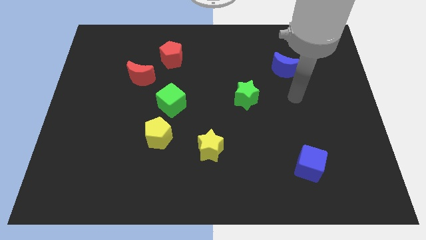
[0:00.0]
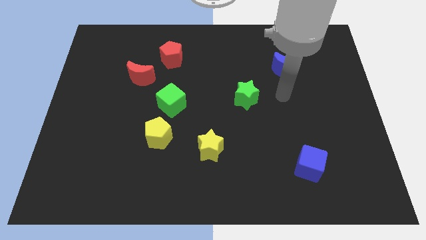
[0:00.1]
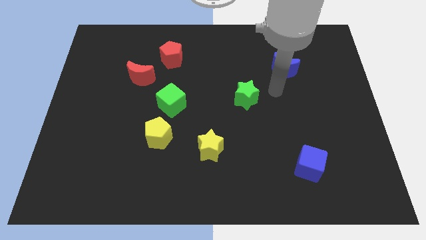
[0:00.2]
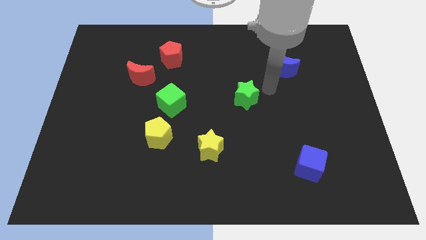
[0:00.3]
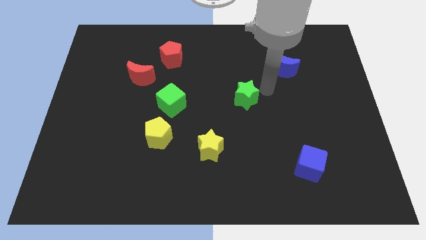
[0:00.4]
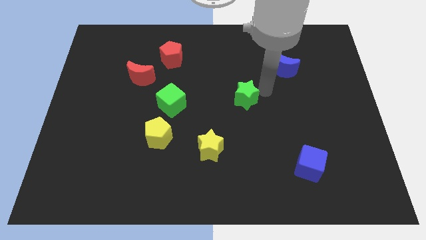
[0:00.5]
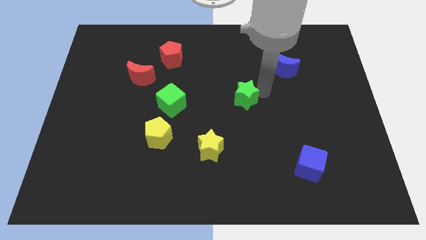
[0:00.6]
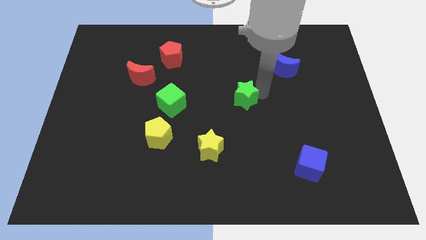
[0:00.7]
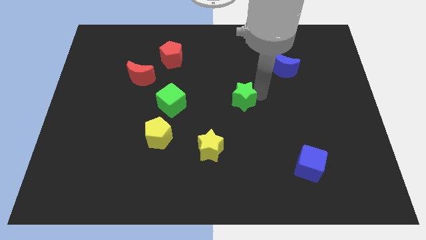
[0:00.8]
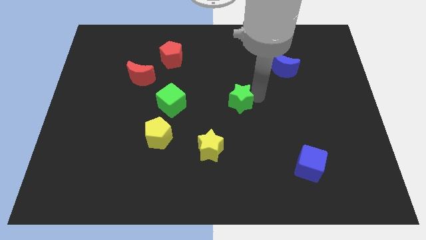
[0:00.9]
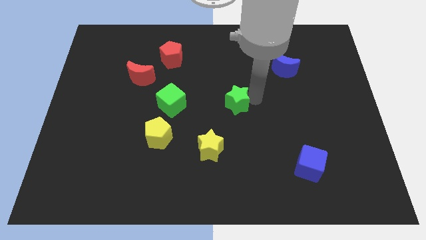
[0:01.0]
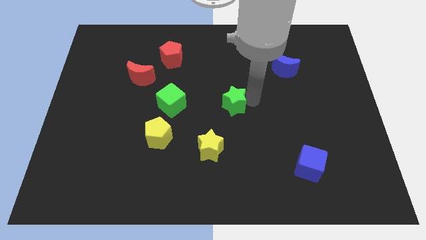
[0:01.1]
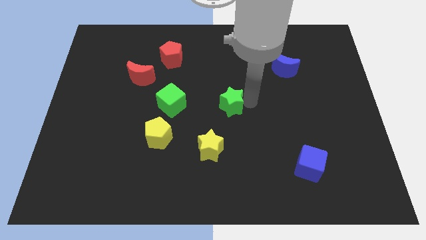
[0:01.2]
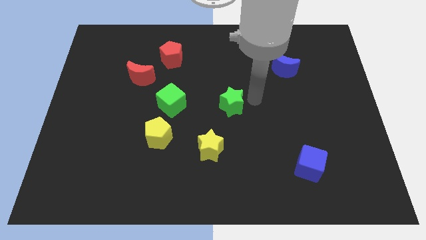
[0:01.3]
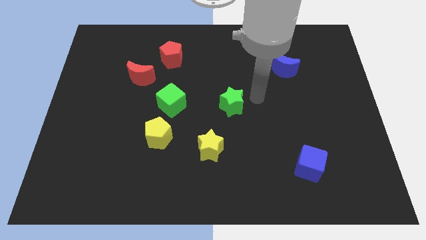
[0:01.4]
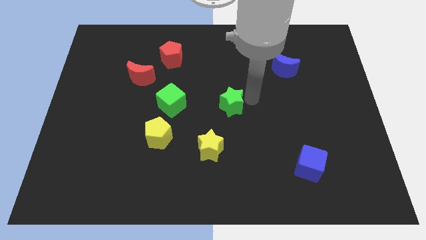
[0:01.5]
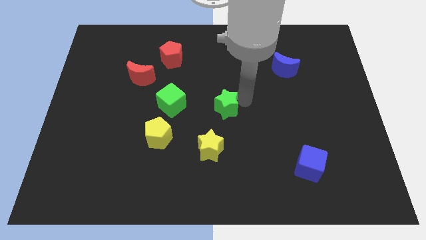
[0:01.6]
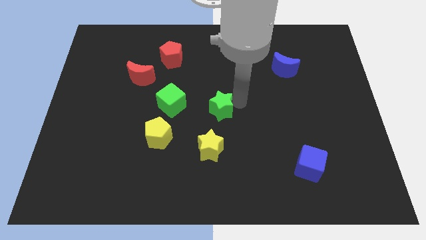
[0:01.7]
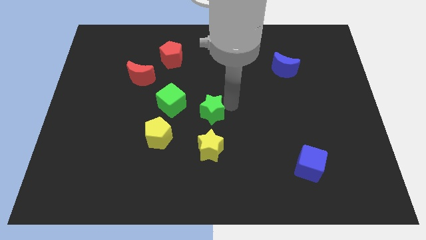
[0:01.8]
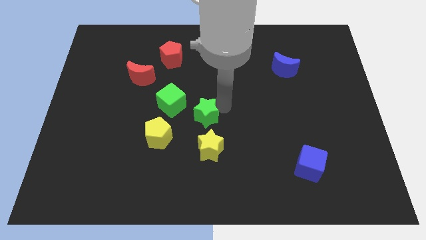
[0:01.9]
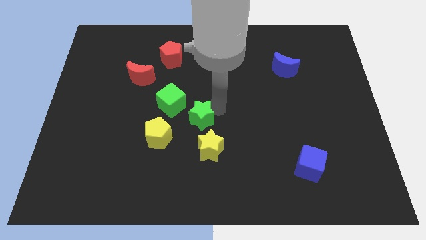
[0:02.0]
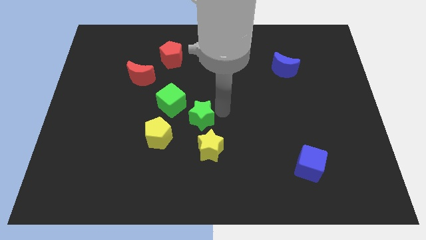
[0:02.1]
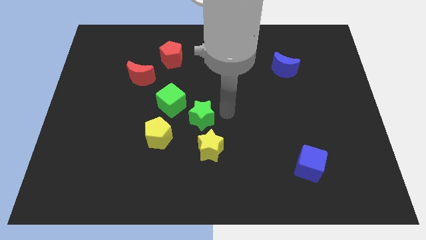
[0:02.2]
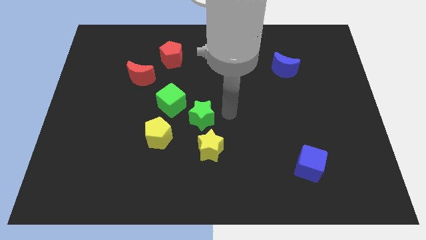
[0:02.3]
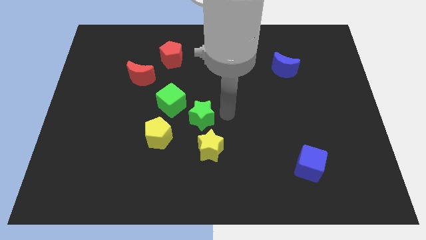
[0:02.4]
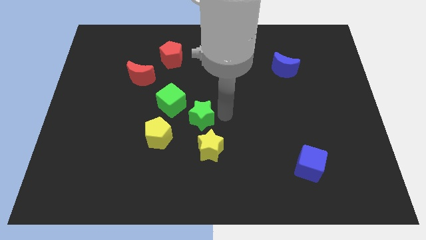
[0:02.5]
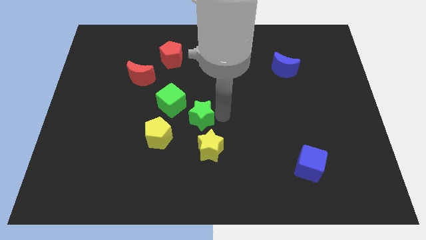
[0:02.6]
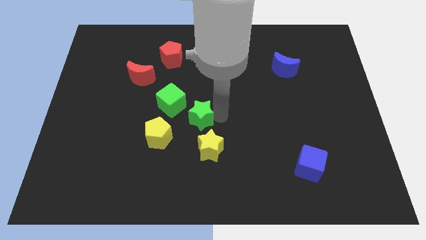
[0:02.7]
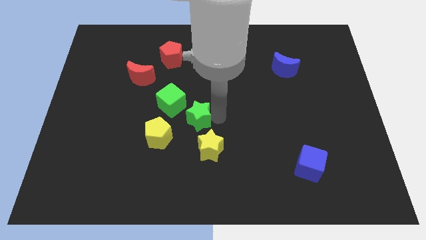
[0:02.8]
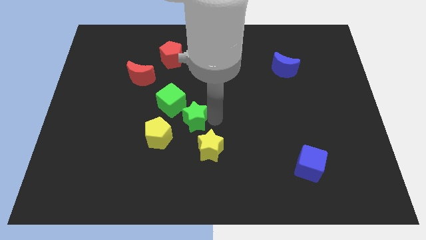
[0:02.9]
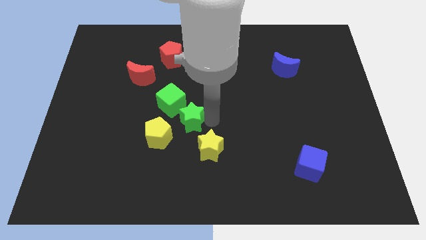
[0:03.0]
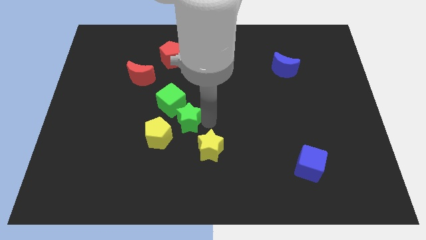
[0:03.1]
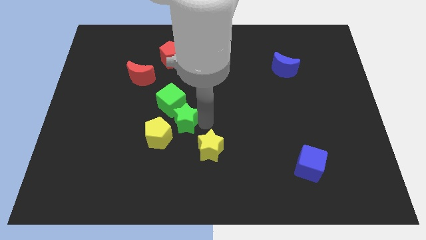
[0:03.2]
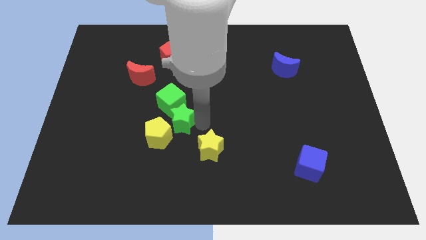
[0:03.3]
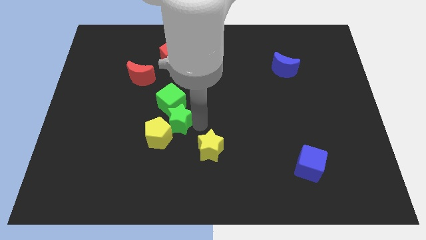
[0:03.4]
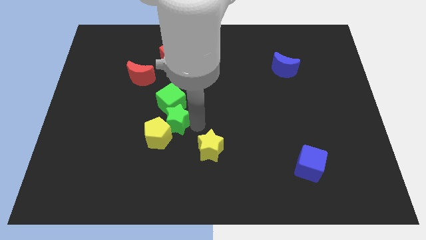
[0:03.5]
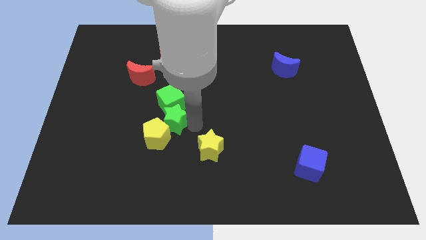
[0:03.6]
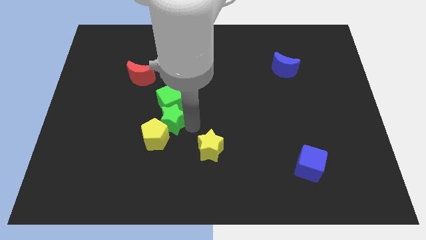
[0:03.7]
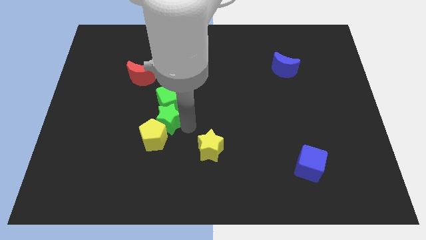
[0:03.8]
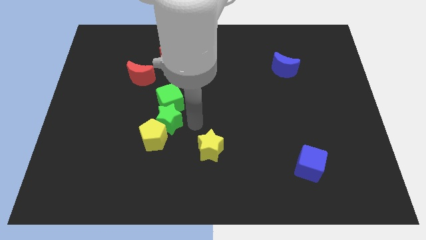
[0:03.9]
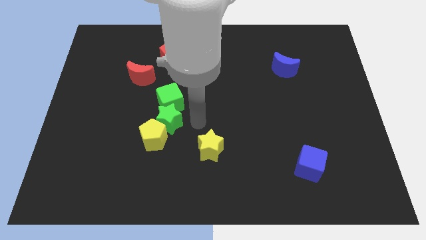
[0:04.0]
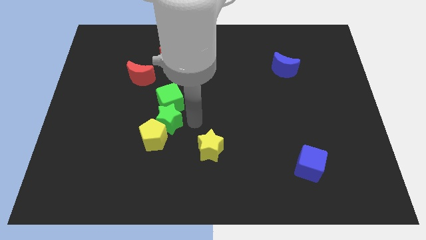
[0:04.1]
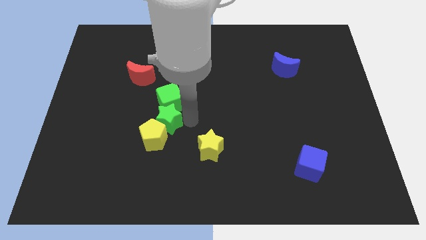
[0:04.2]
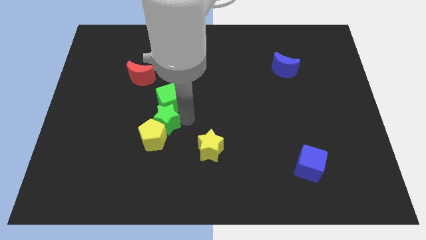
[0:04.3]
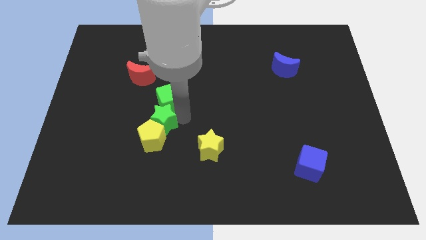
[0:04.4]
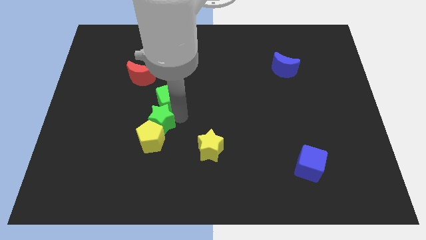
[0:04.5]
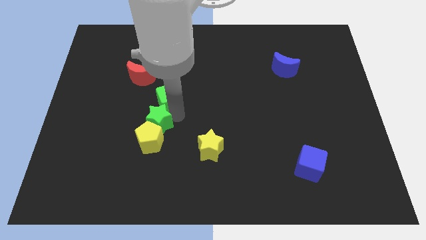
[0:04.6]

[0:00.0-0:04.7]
slide the green star diagonally up and to the left of the yellow pentagon

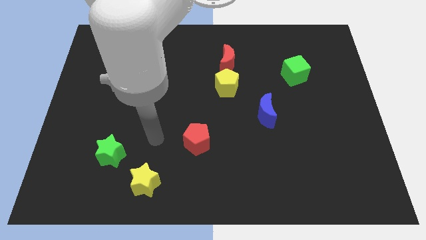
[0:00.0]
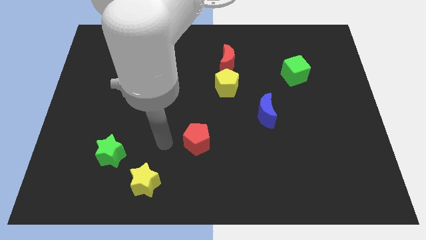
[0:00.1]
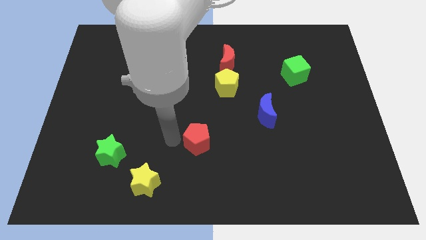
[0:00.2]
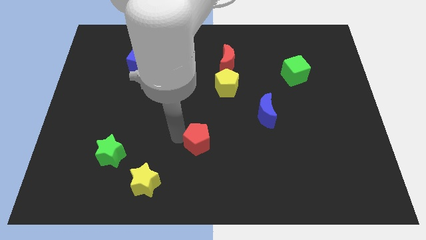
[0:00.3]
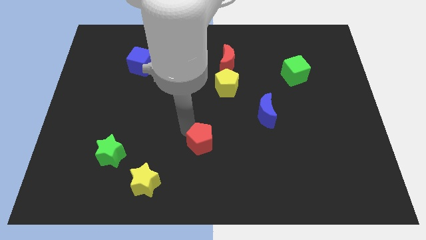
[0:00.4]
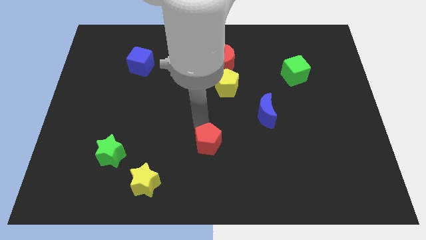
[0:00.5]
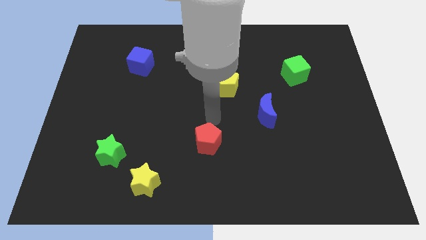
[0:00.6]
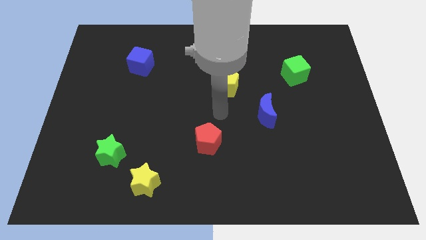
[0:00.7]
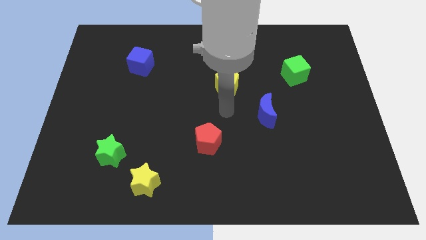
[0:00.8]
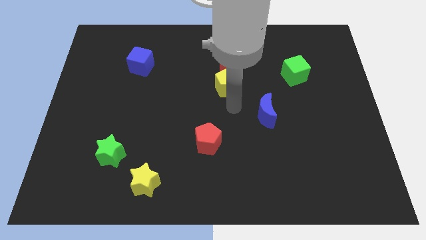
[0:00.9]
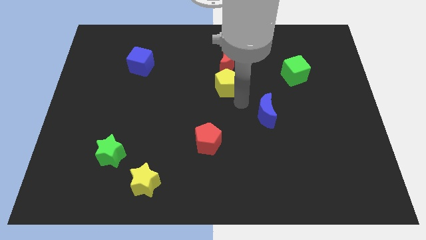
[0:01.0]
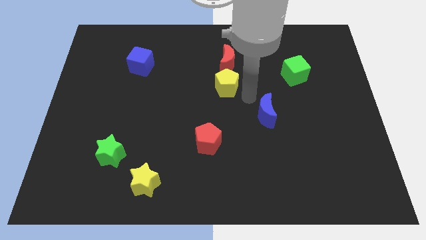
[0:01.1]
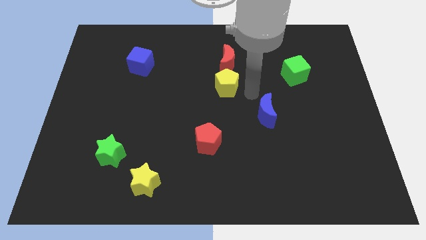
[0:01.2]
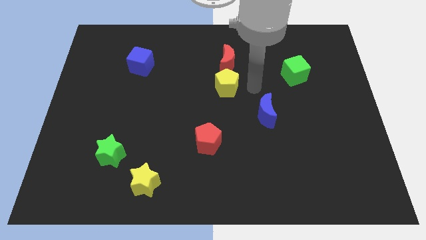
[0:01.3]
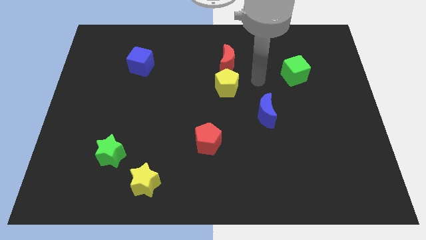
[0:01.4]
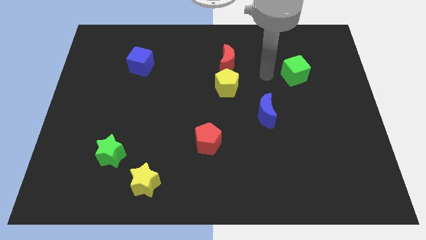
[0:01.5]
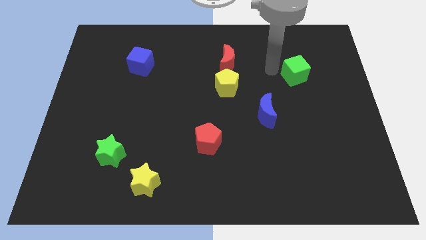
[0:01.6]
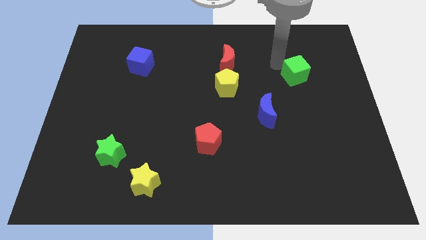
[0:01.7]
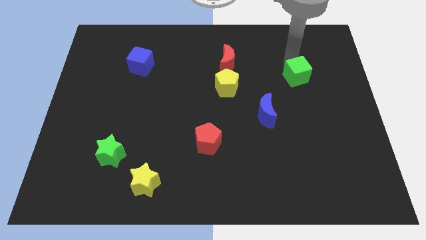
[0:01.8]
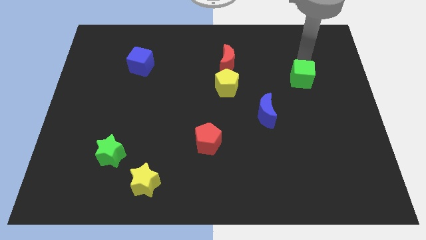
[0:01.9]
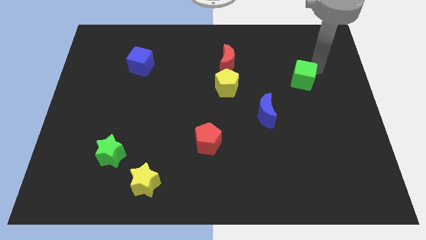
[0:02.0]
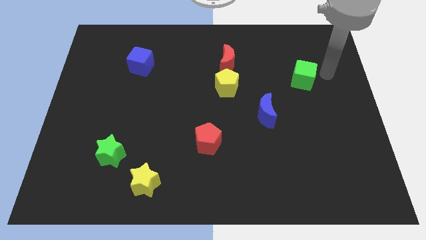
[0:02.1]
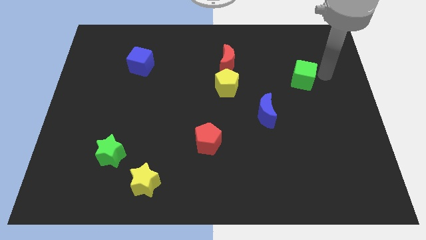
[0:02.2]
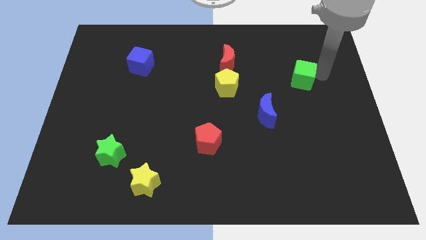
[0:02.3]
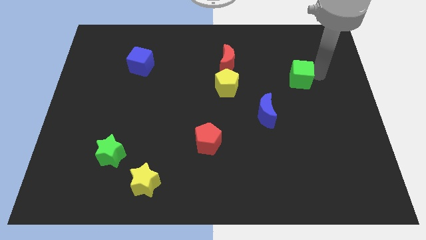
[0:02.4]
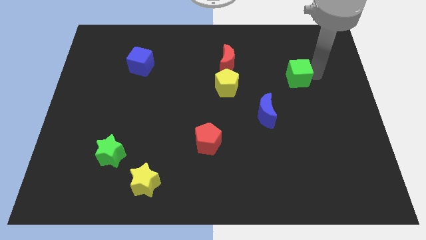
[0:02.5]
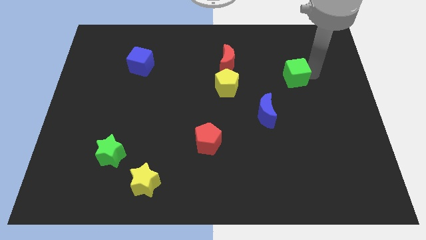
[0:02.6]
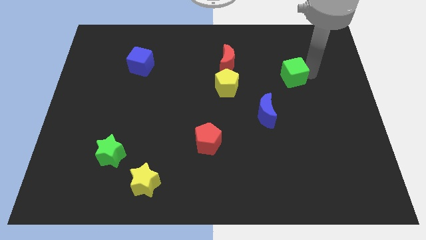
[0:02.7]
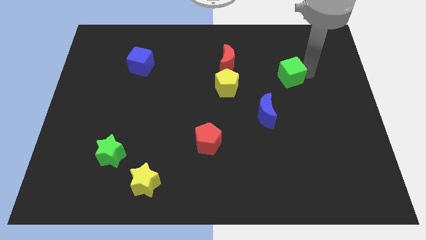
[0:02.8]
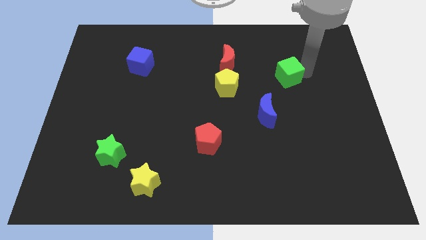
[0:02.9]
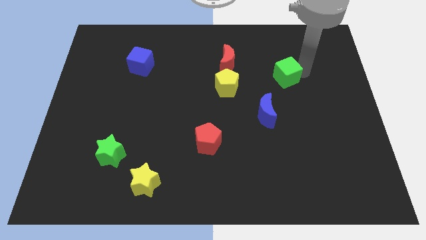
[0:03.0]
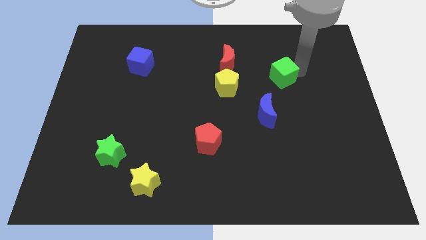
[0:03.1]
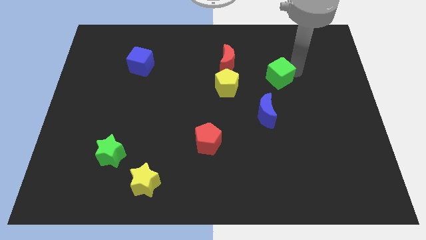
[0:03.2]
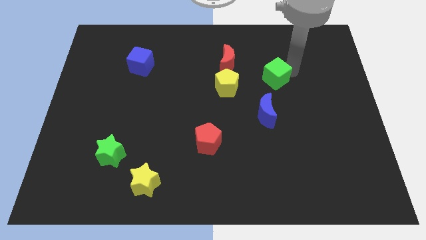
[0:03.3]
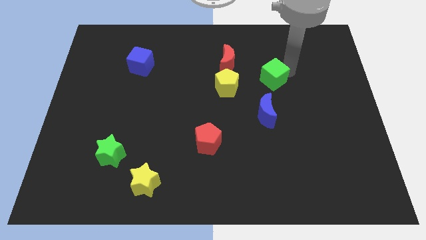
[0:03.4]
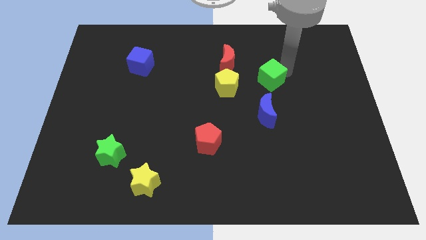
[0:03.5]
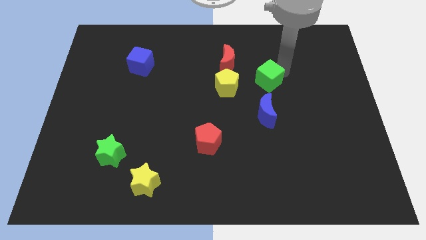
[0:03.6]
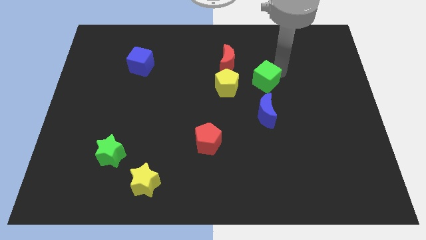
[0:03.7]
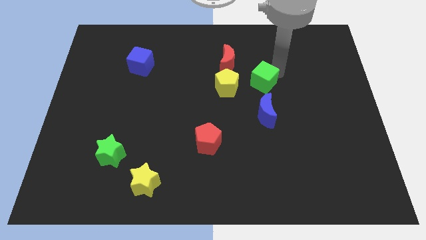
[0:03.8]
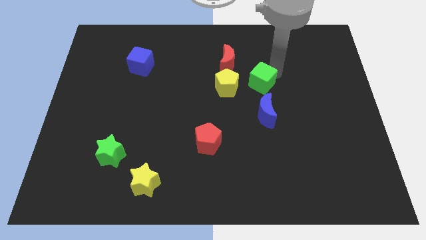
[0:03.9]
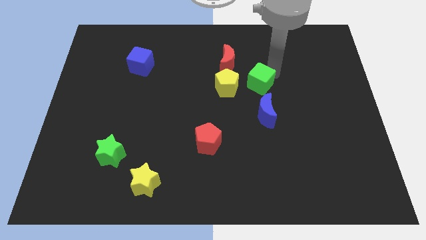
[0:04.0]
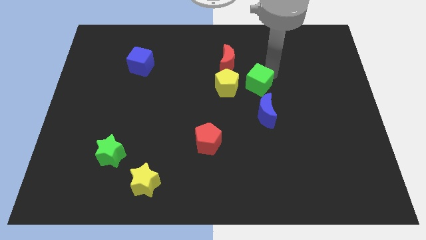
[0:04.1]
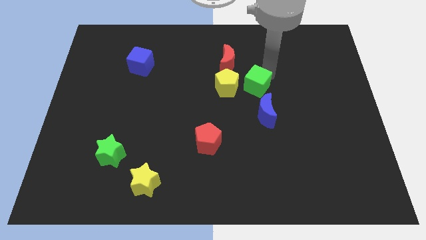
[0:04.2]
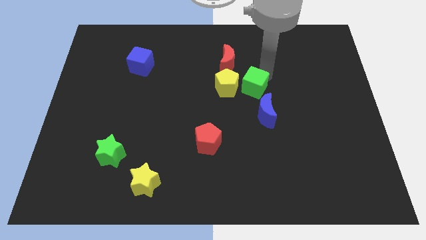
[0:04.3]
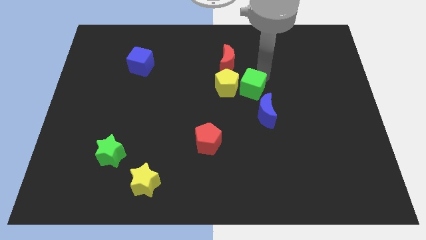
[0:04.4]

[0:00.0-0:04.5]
move the green cube to the bottom right of the yellow pentagon
